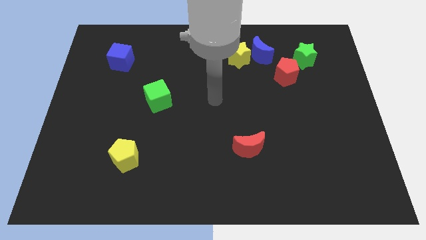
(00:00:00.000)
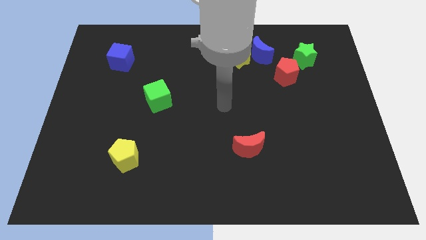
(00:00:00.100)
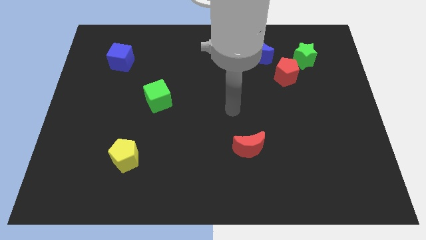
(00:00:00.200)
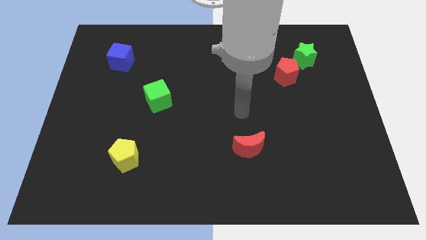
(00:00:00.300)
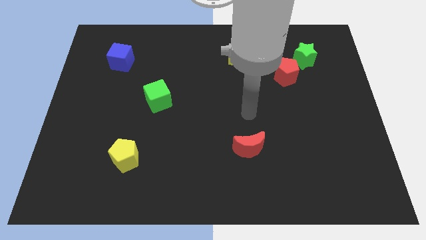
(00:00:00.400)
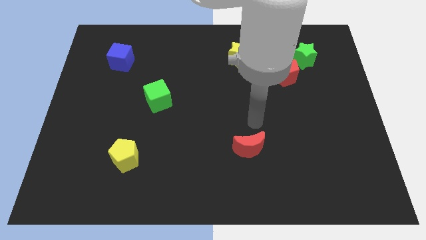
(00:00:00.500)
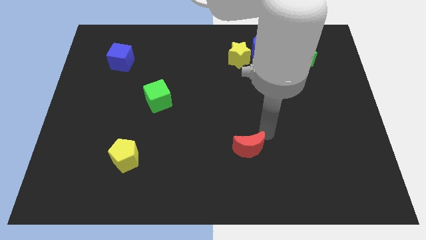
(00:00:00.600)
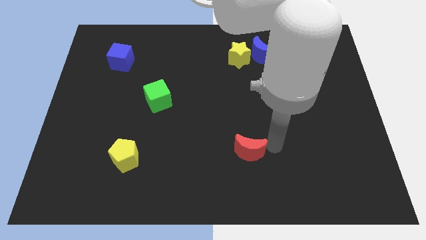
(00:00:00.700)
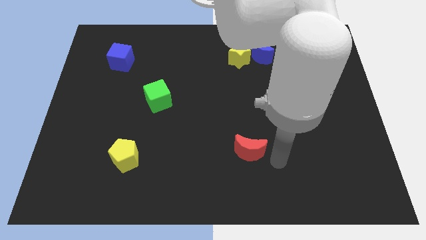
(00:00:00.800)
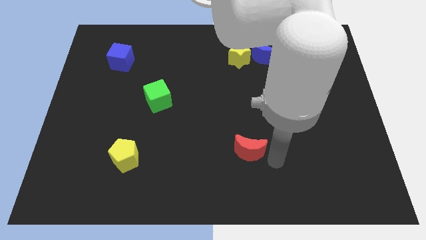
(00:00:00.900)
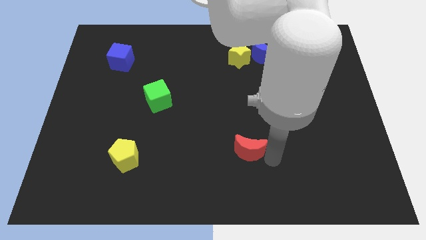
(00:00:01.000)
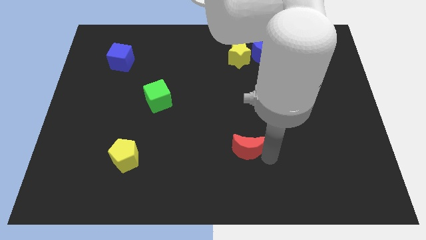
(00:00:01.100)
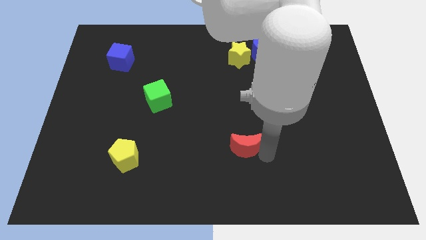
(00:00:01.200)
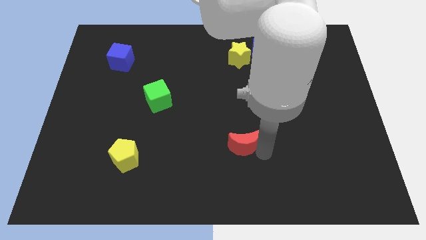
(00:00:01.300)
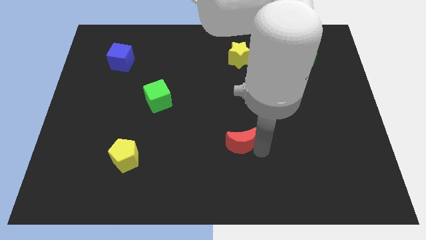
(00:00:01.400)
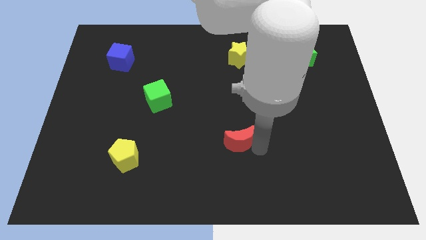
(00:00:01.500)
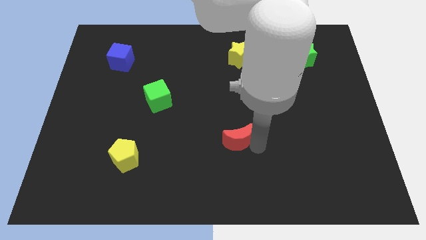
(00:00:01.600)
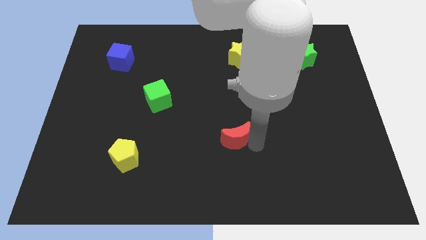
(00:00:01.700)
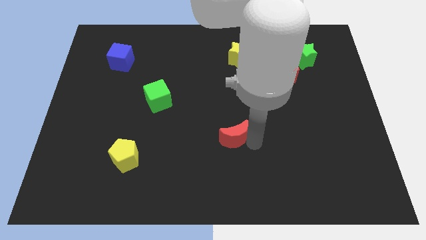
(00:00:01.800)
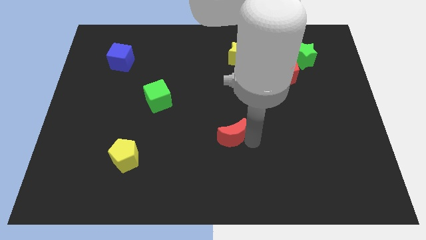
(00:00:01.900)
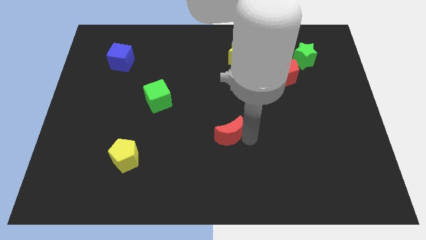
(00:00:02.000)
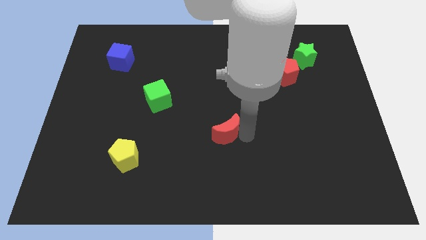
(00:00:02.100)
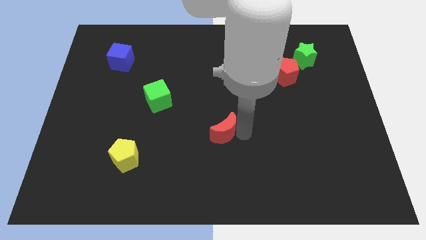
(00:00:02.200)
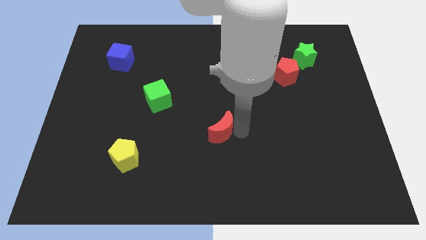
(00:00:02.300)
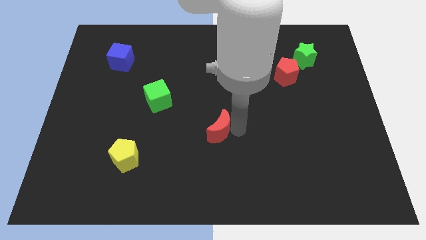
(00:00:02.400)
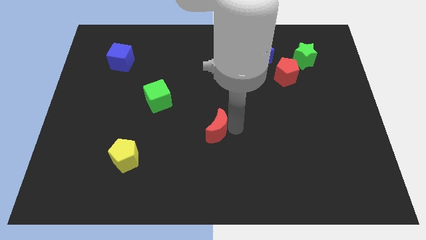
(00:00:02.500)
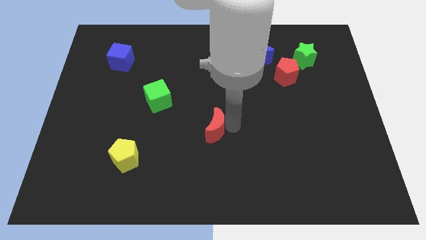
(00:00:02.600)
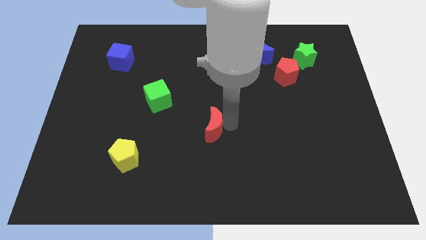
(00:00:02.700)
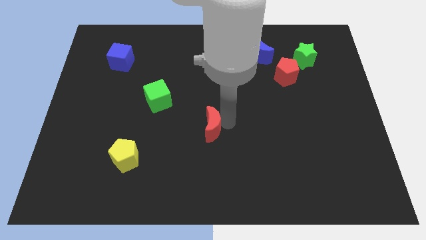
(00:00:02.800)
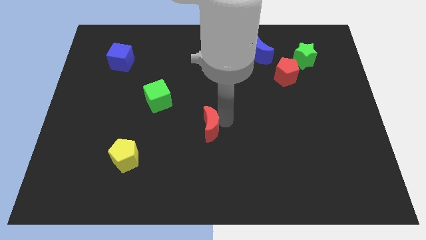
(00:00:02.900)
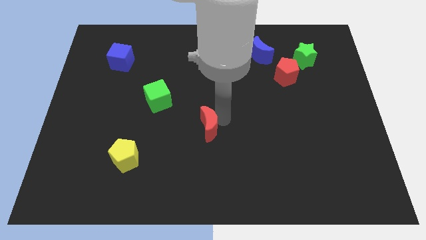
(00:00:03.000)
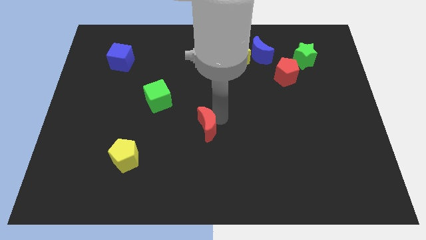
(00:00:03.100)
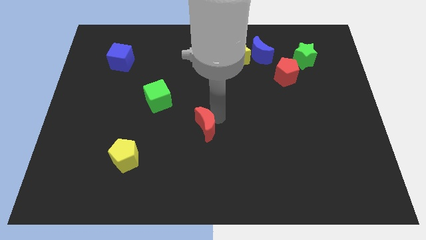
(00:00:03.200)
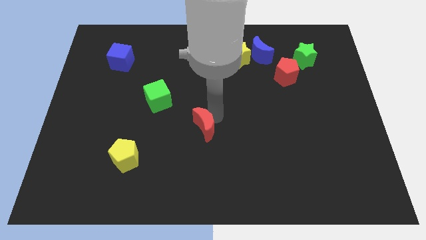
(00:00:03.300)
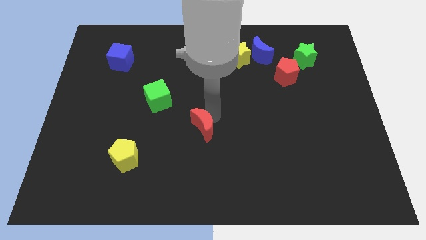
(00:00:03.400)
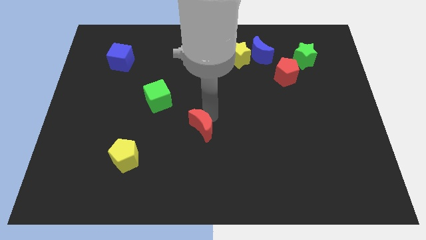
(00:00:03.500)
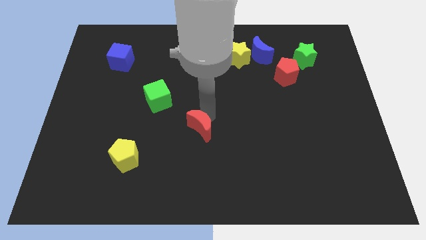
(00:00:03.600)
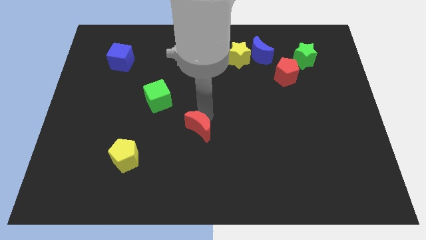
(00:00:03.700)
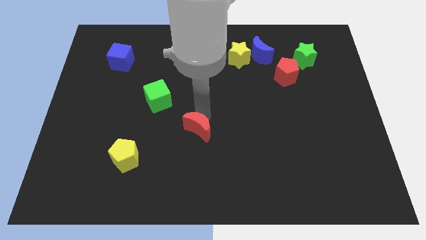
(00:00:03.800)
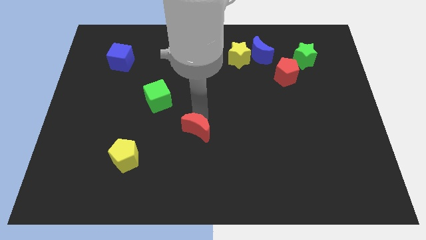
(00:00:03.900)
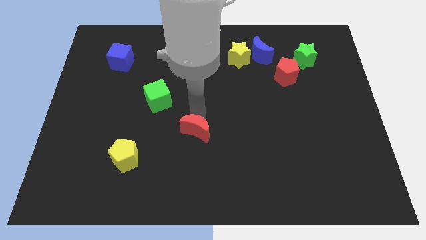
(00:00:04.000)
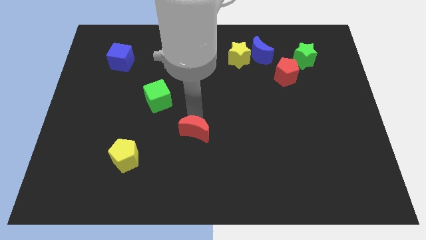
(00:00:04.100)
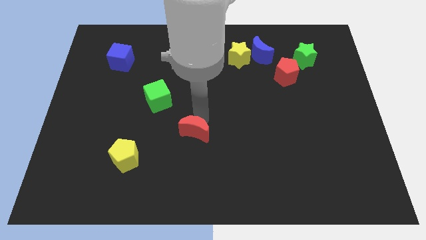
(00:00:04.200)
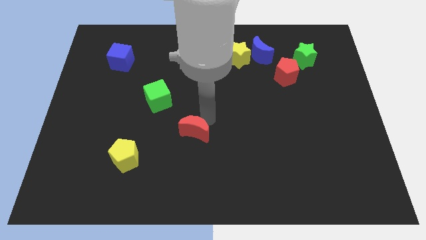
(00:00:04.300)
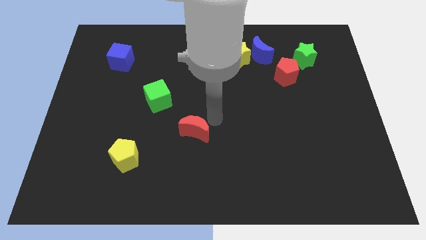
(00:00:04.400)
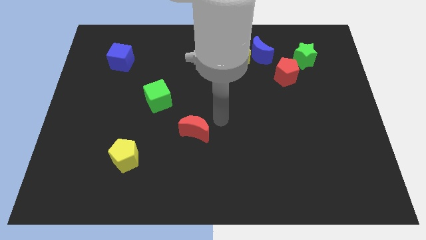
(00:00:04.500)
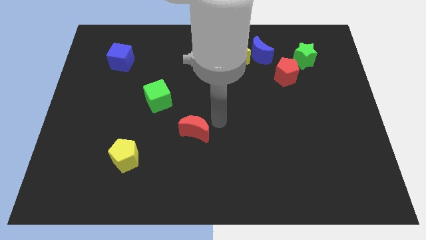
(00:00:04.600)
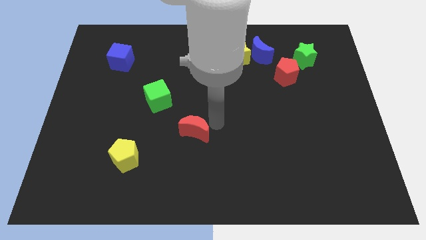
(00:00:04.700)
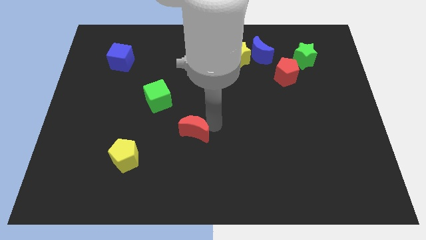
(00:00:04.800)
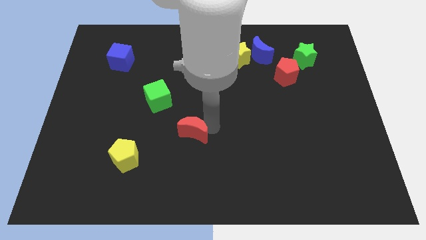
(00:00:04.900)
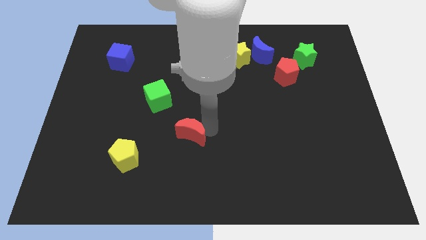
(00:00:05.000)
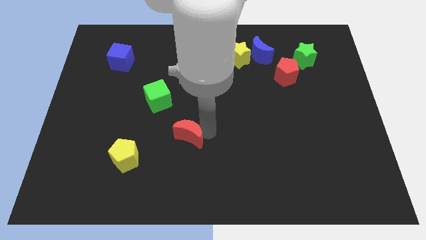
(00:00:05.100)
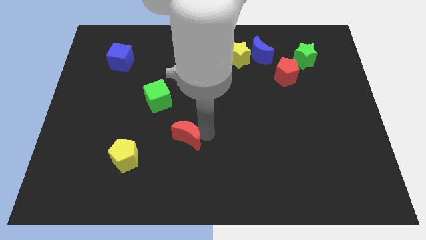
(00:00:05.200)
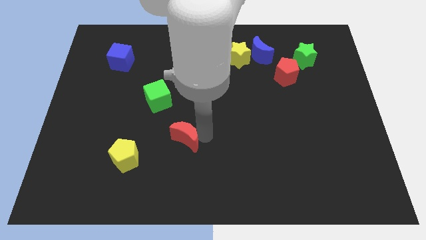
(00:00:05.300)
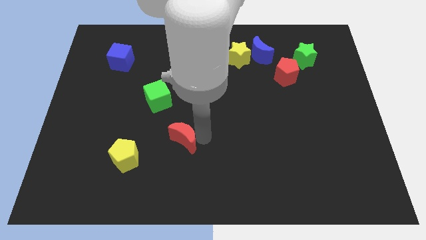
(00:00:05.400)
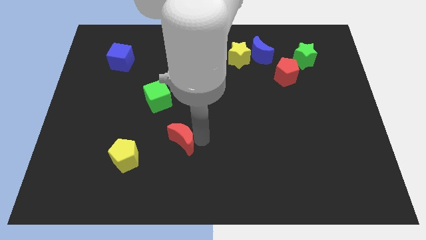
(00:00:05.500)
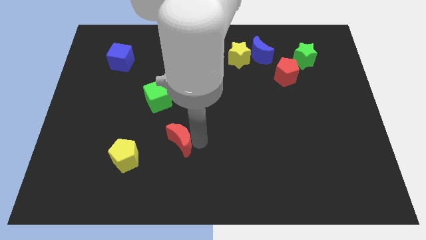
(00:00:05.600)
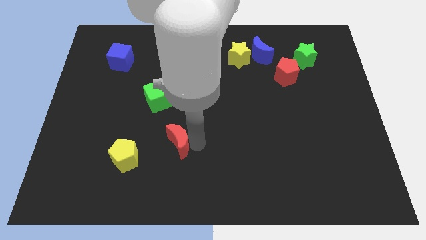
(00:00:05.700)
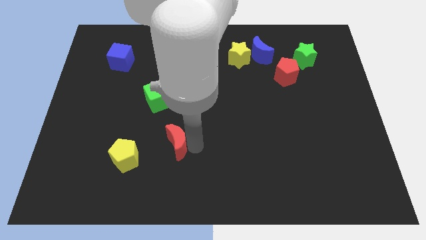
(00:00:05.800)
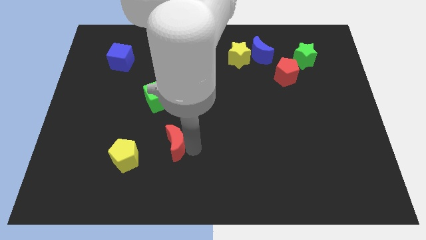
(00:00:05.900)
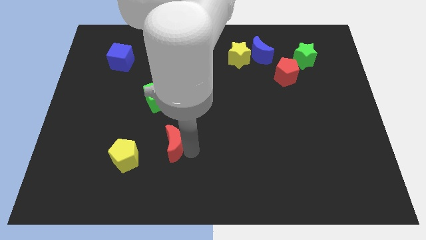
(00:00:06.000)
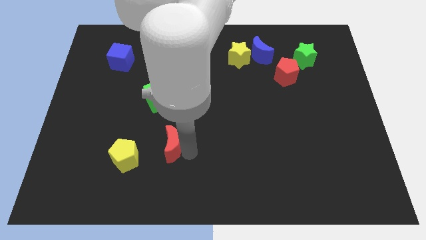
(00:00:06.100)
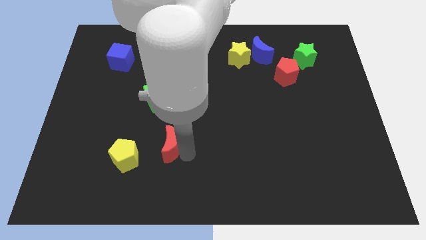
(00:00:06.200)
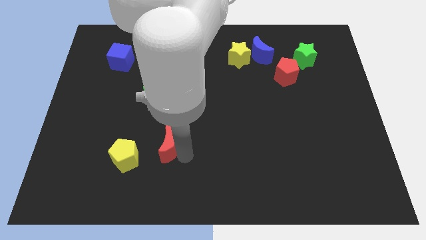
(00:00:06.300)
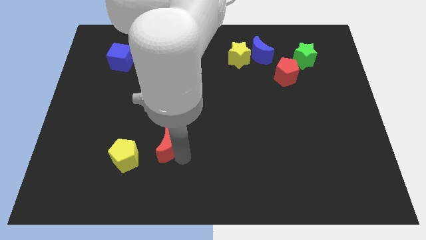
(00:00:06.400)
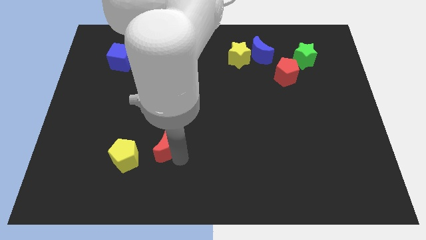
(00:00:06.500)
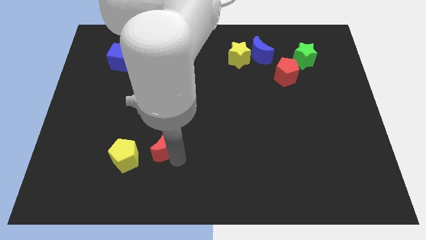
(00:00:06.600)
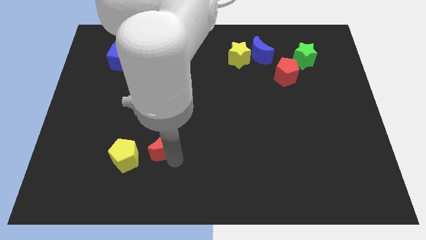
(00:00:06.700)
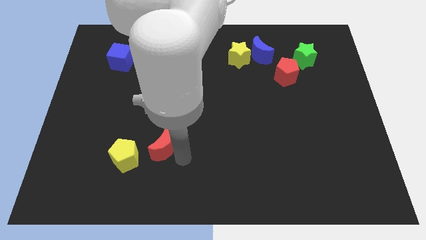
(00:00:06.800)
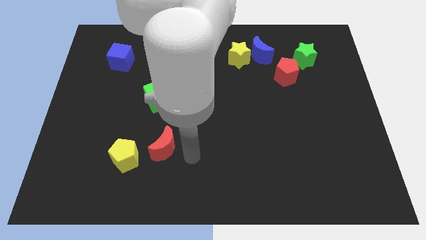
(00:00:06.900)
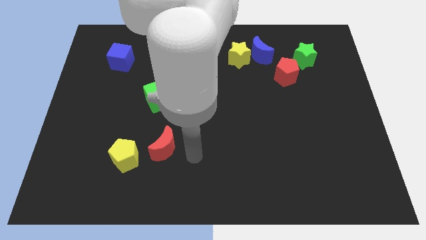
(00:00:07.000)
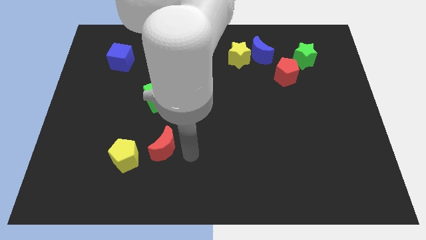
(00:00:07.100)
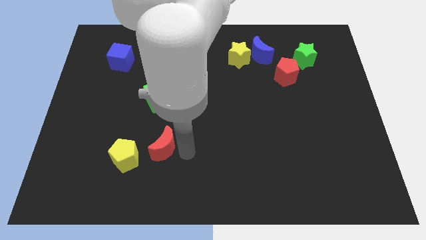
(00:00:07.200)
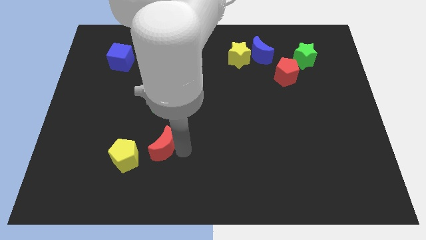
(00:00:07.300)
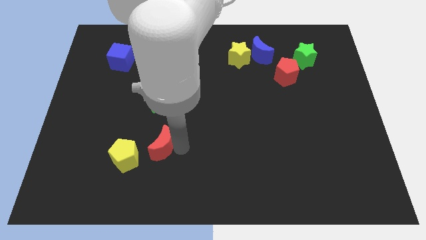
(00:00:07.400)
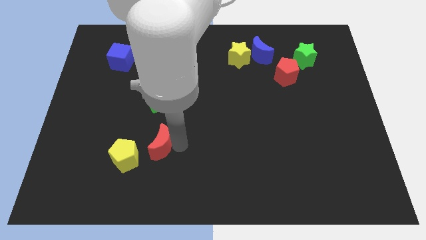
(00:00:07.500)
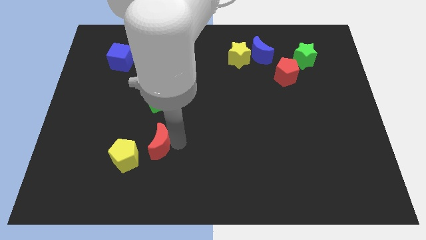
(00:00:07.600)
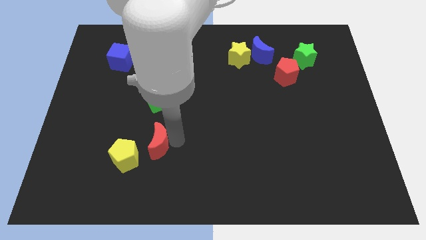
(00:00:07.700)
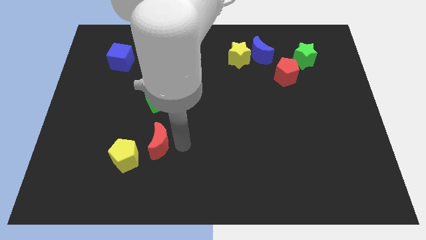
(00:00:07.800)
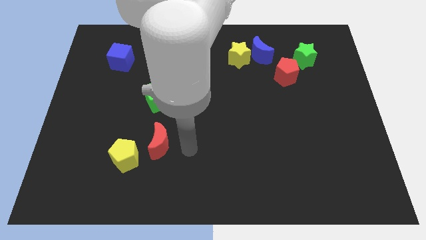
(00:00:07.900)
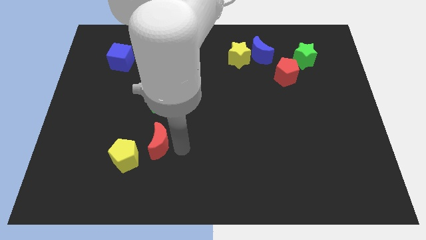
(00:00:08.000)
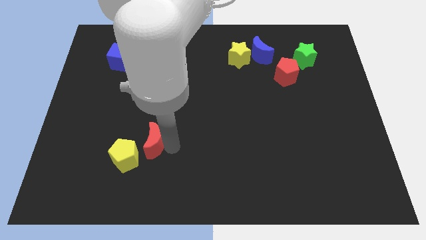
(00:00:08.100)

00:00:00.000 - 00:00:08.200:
move the red moon to the left
